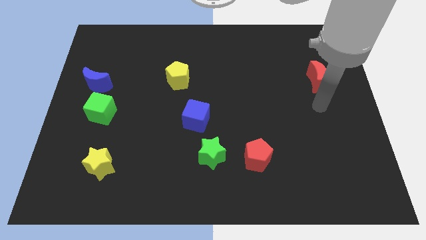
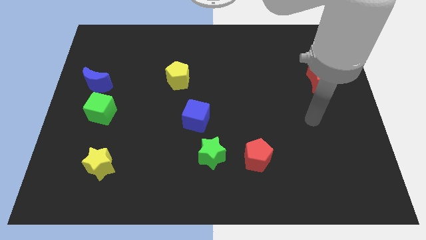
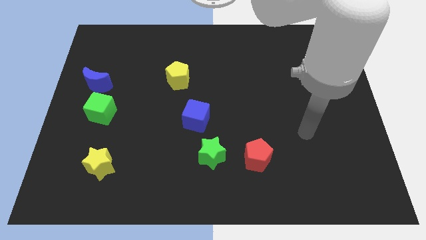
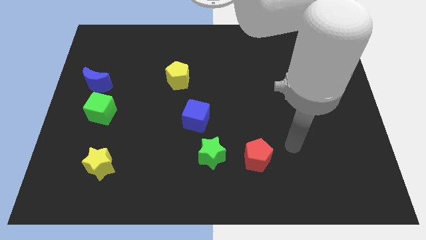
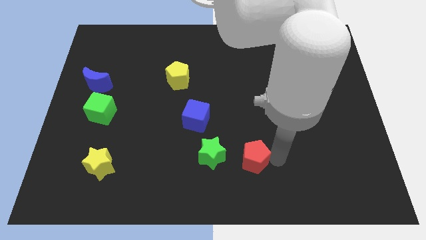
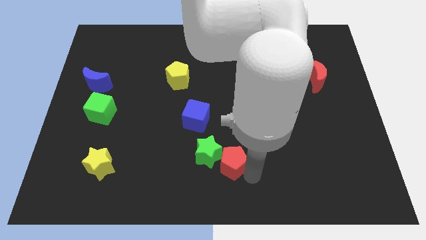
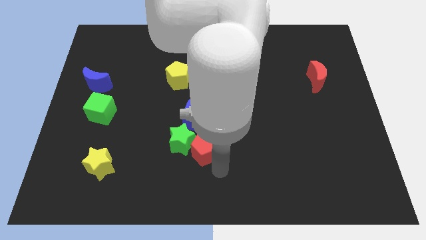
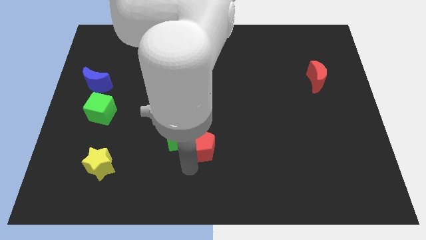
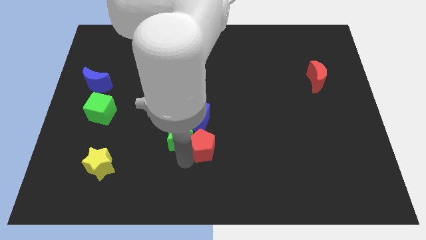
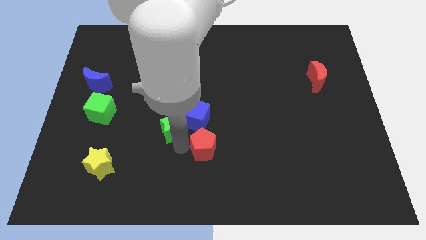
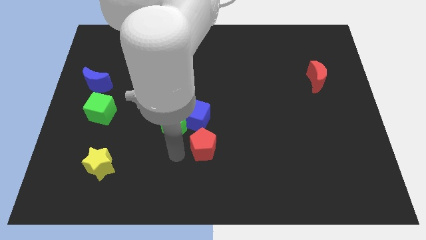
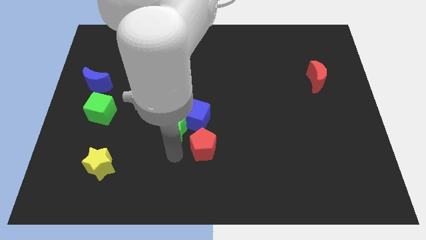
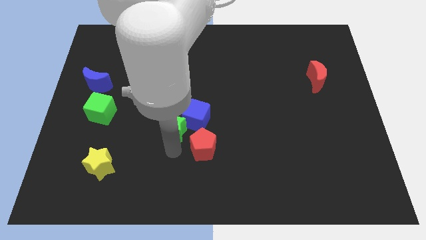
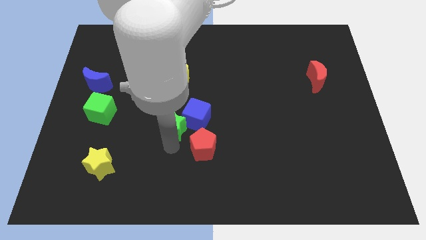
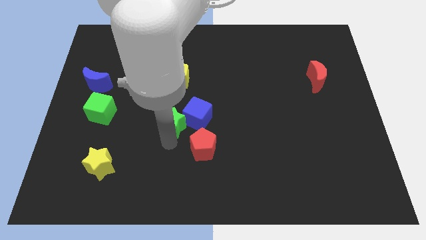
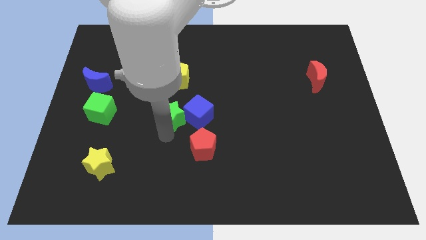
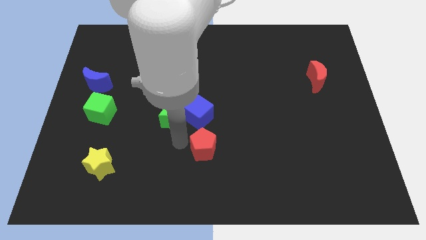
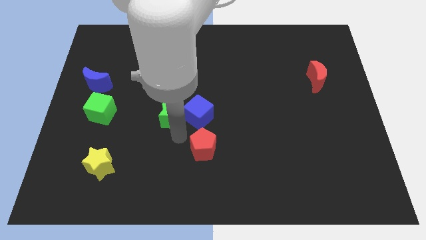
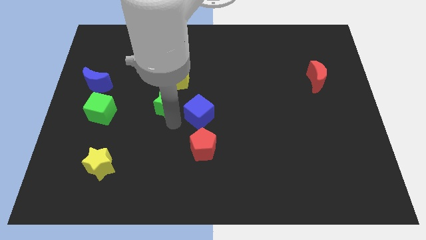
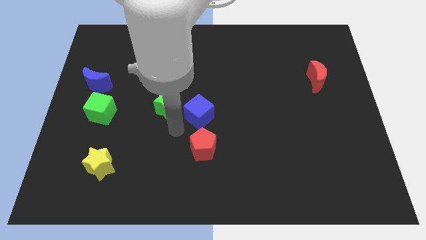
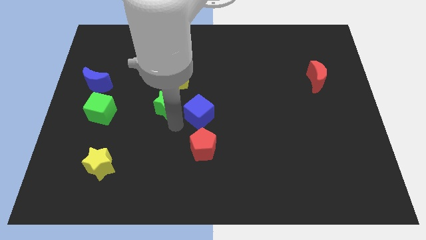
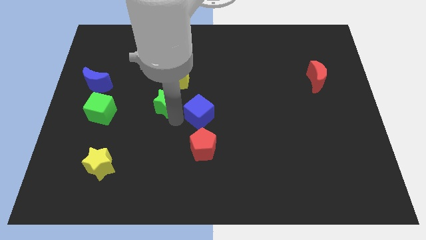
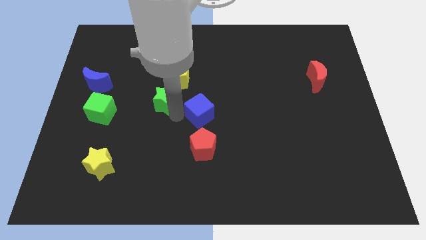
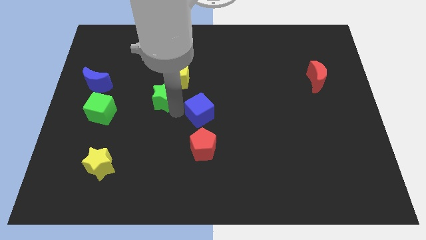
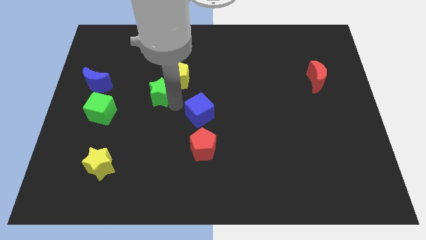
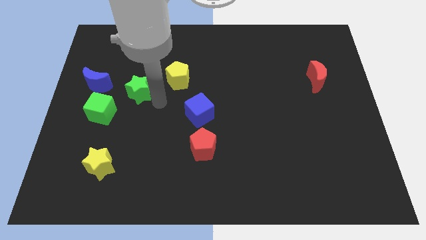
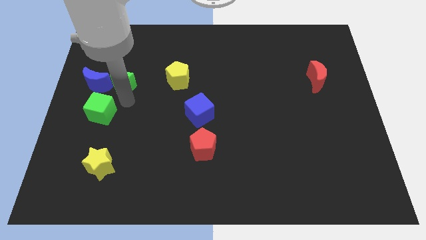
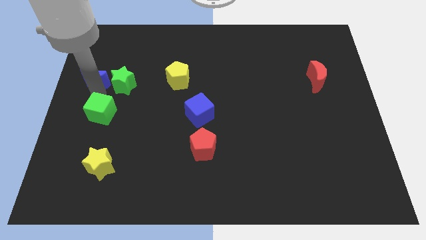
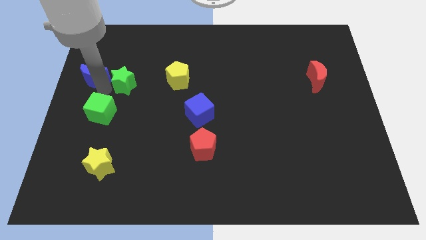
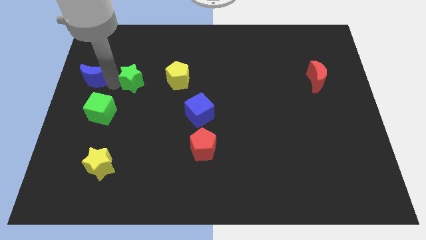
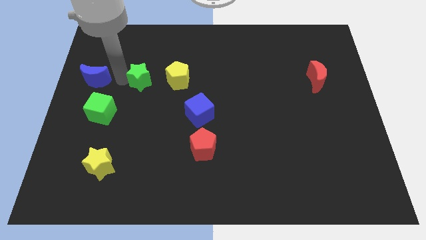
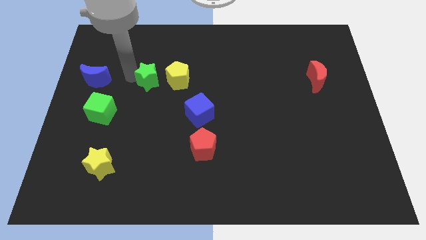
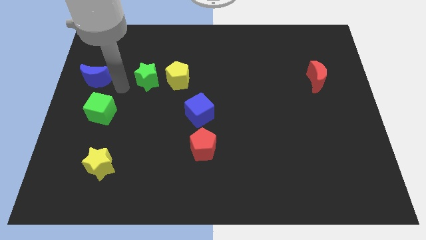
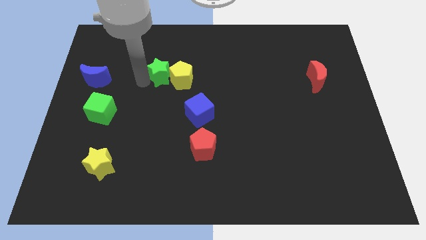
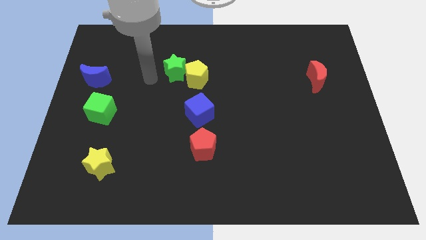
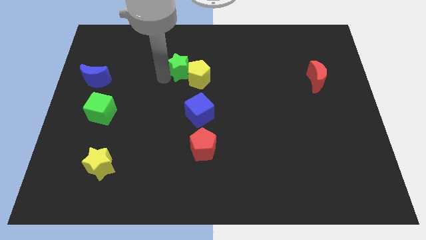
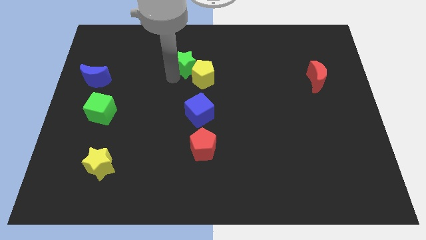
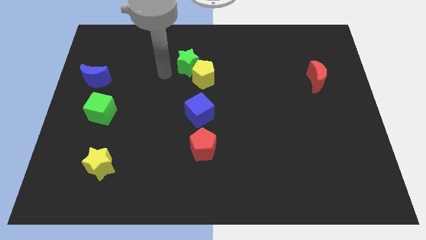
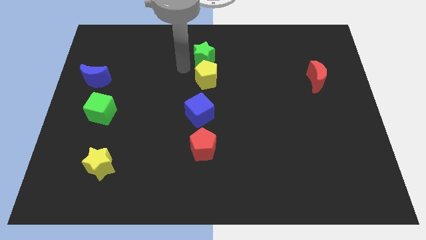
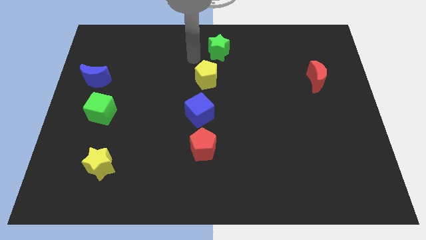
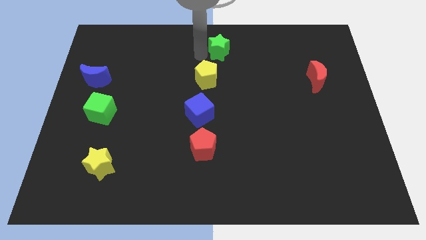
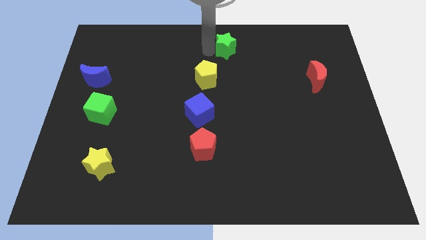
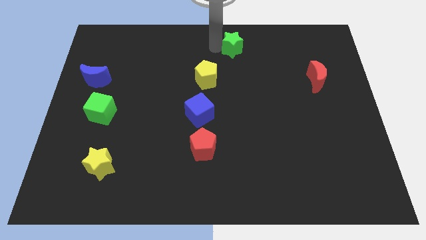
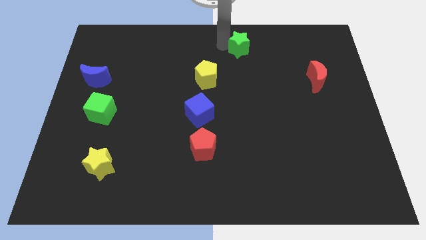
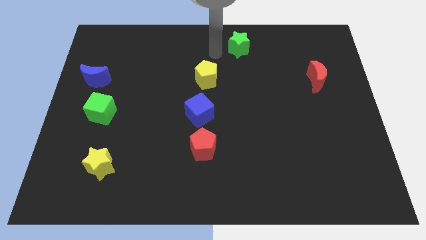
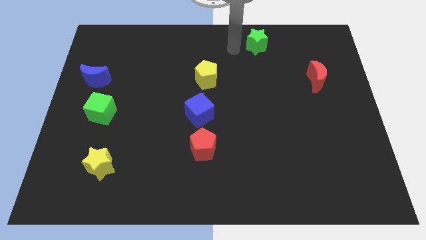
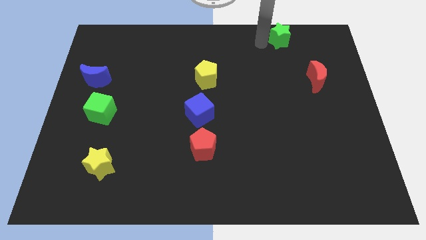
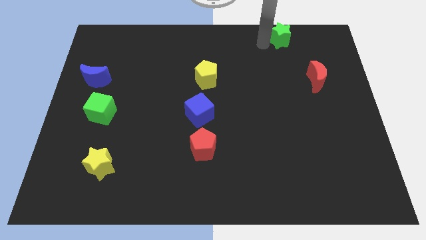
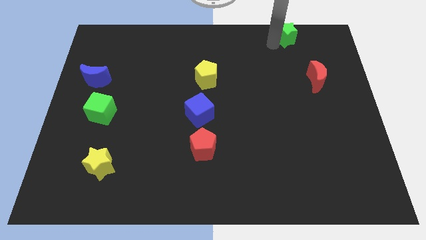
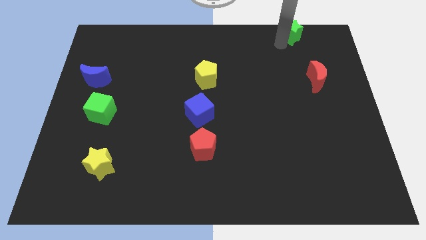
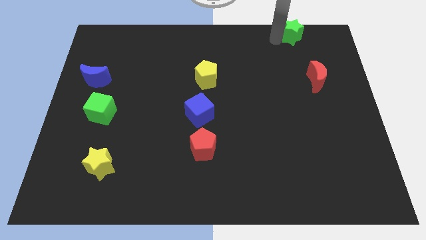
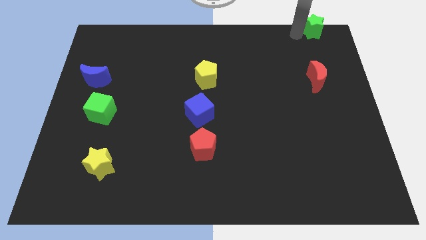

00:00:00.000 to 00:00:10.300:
put the green star to the top right

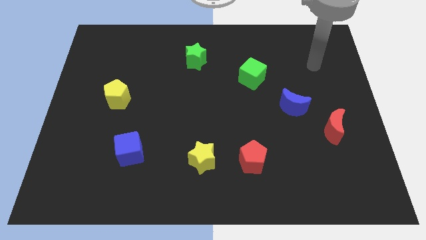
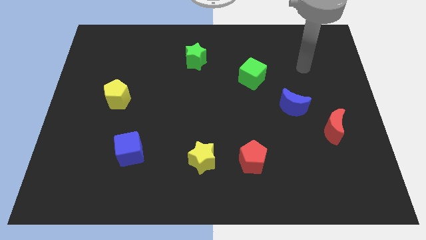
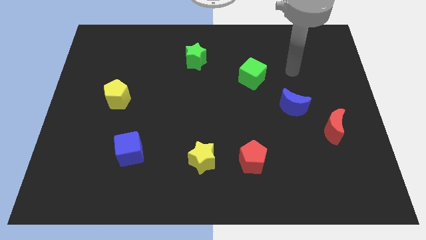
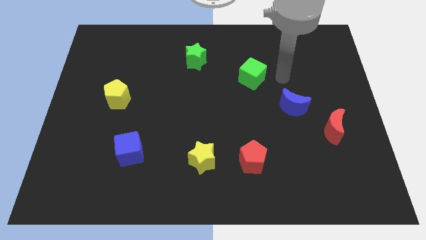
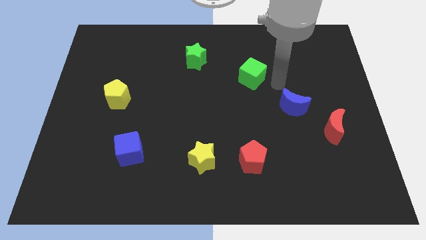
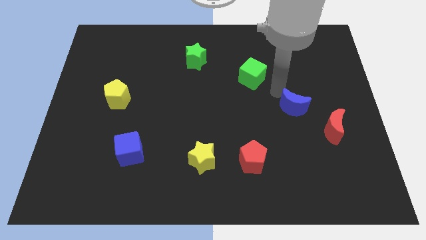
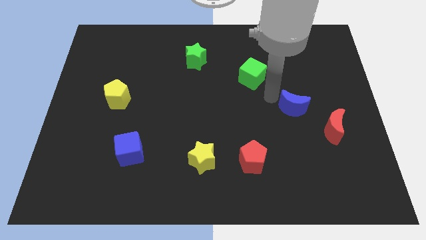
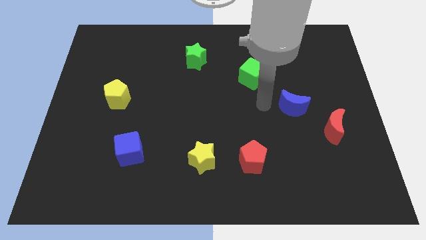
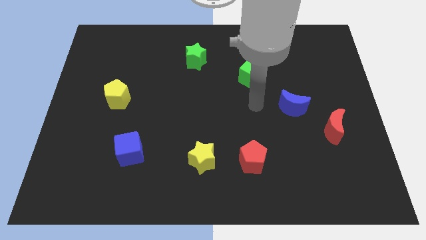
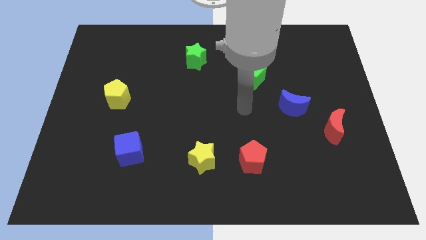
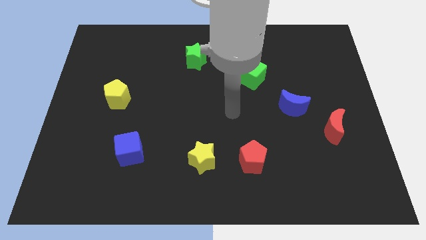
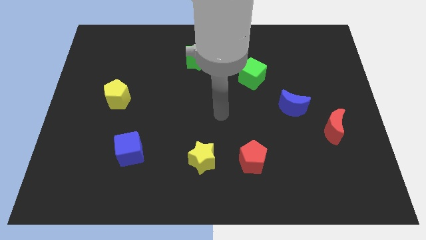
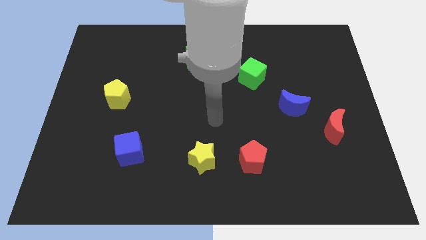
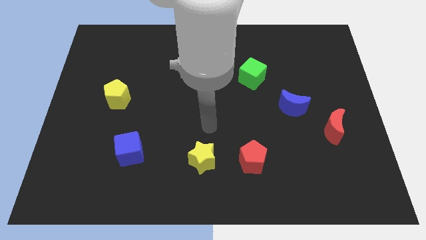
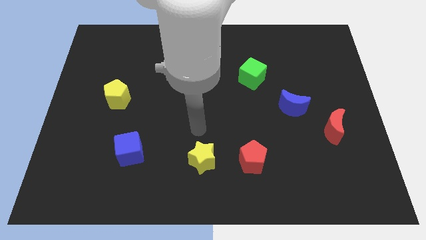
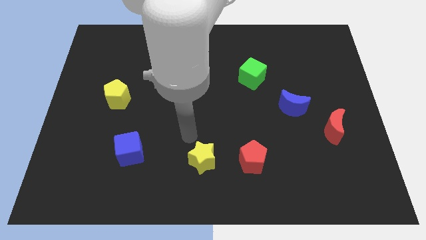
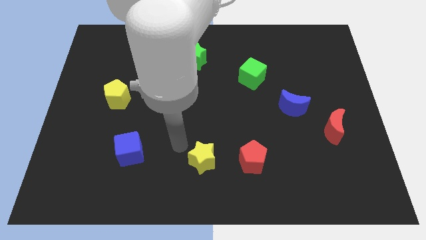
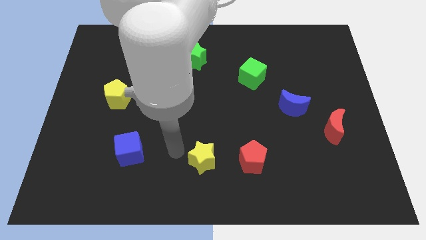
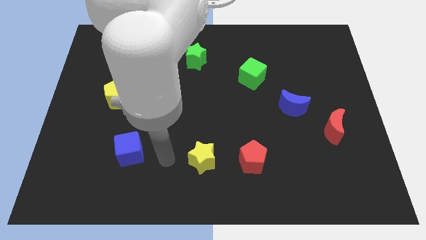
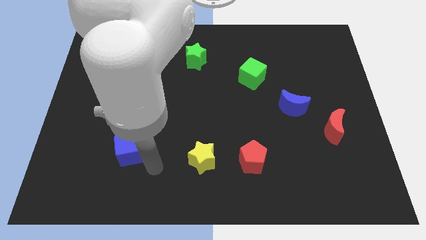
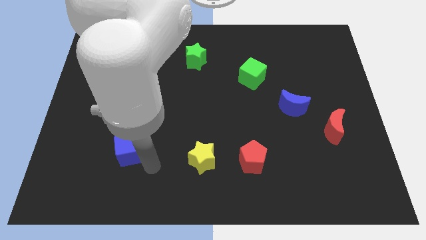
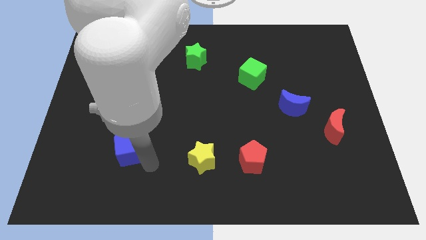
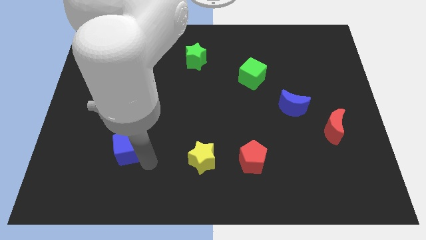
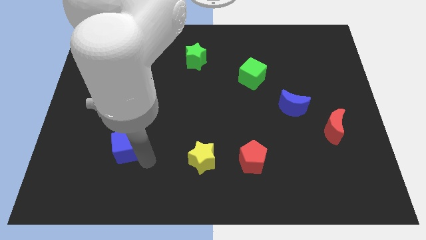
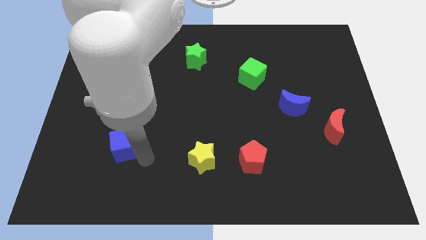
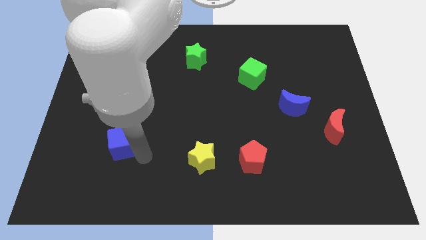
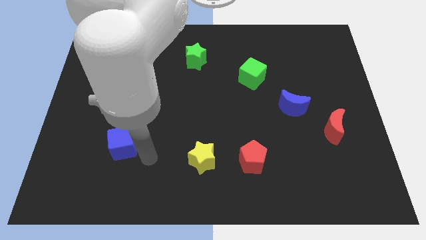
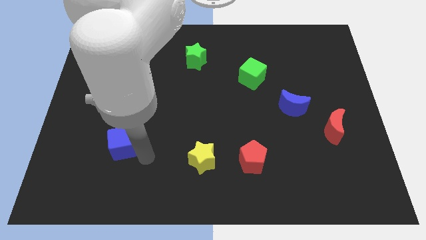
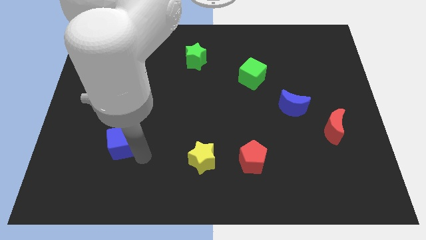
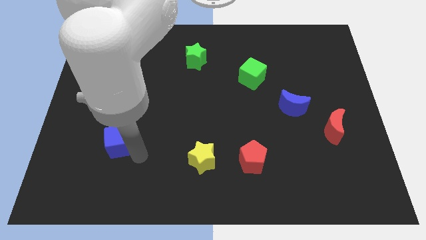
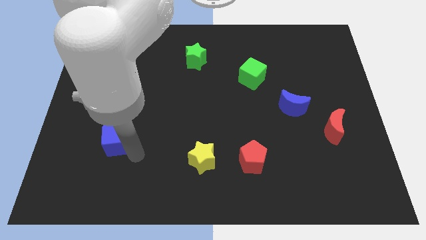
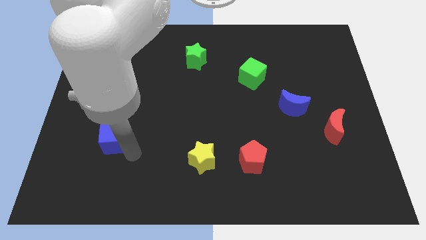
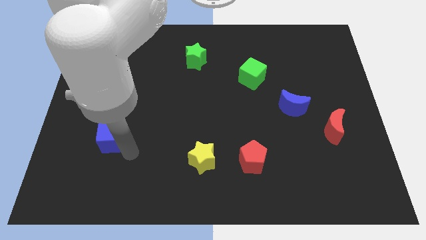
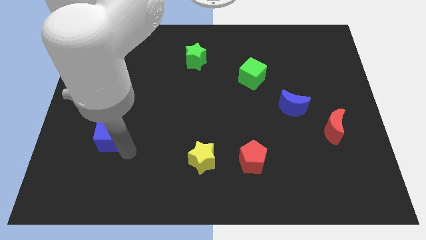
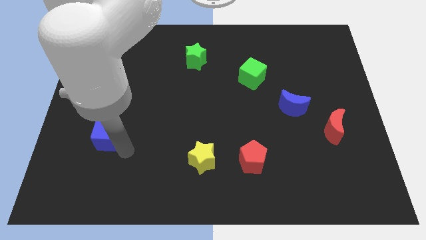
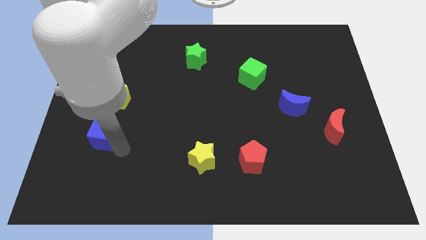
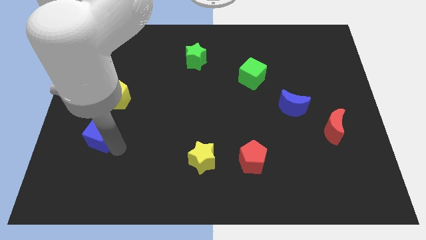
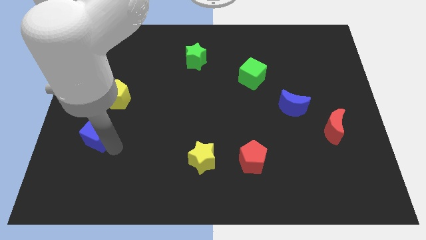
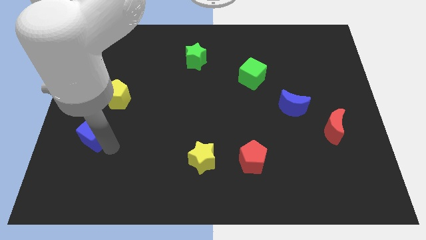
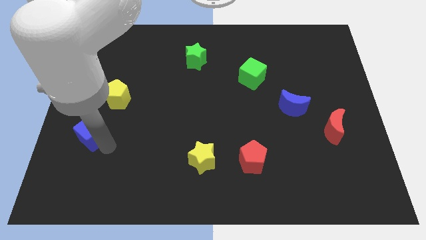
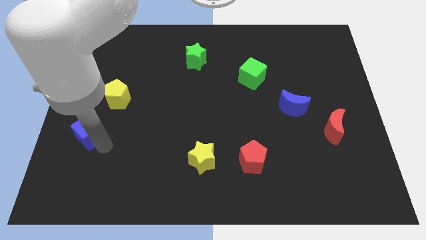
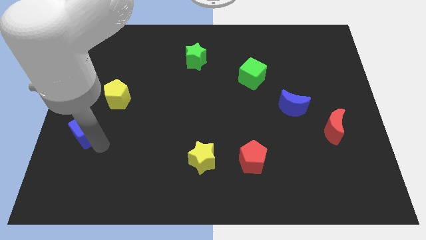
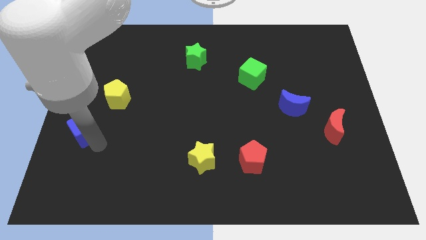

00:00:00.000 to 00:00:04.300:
slide the blue cube to the center left
